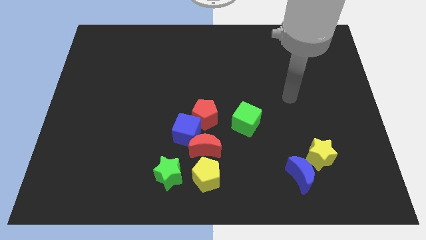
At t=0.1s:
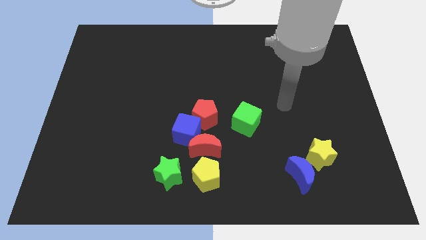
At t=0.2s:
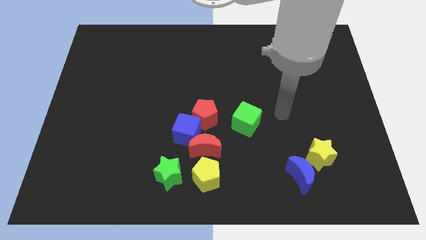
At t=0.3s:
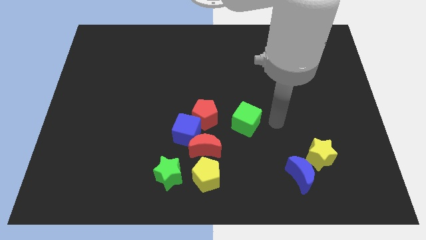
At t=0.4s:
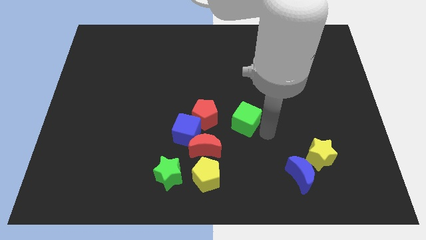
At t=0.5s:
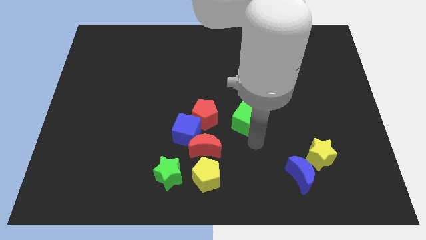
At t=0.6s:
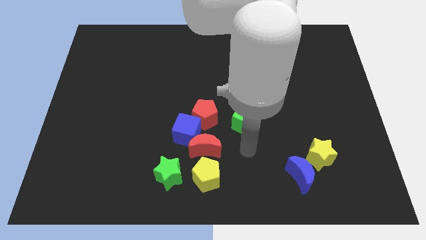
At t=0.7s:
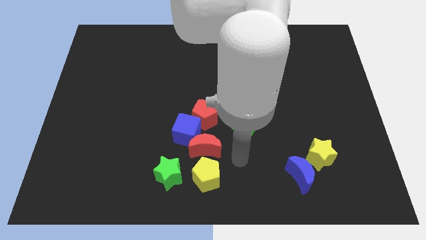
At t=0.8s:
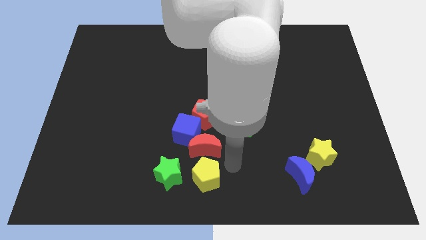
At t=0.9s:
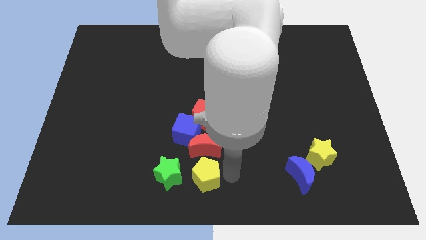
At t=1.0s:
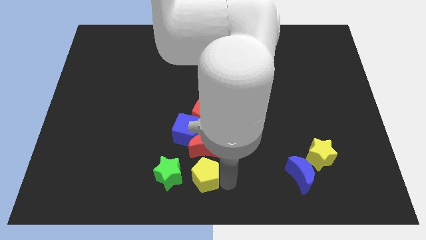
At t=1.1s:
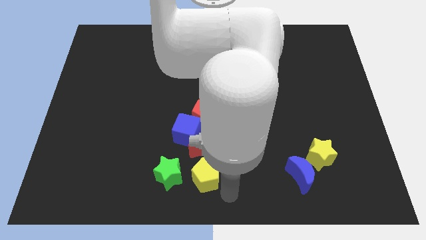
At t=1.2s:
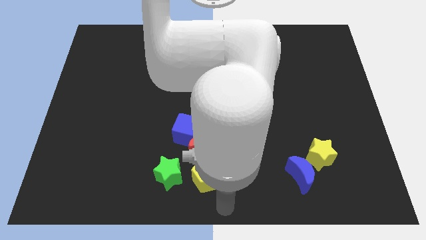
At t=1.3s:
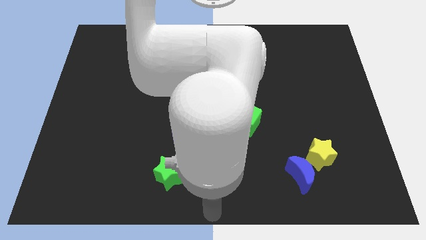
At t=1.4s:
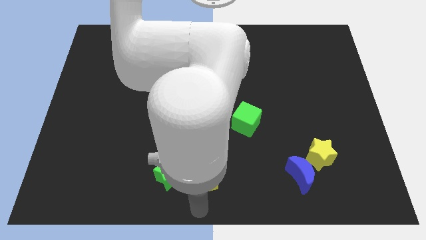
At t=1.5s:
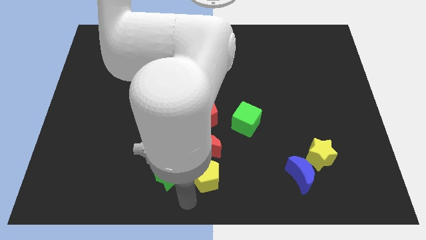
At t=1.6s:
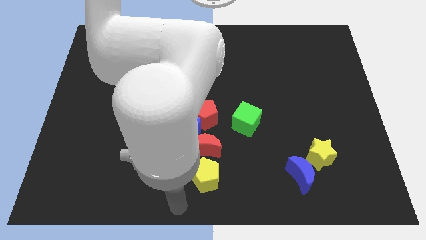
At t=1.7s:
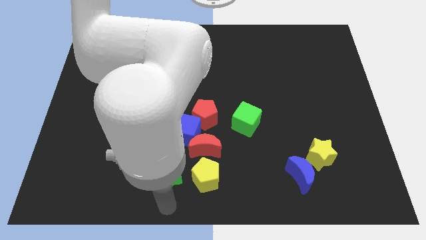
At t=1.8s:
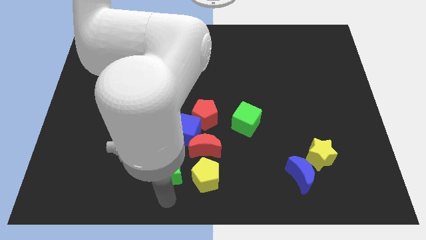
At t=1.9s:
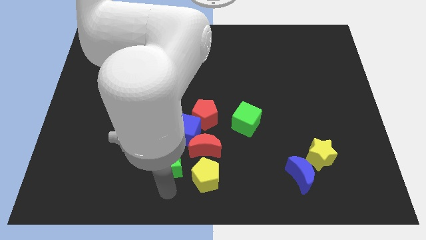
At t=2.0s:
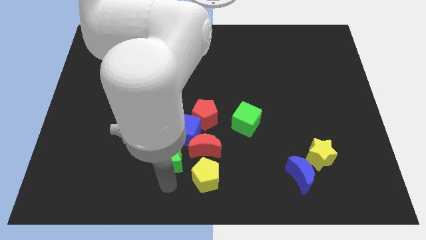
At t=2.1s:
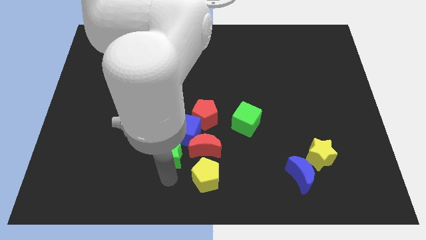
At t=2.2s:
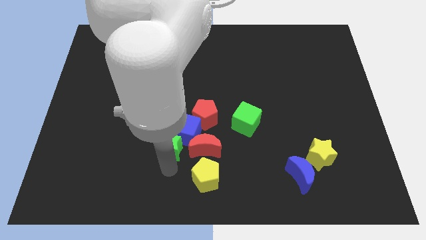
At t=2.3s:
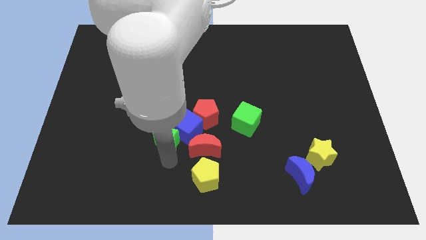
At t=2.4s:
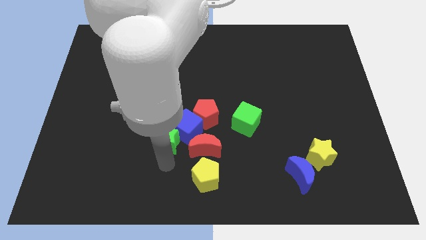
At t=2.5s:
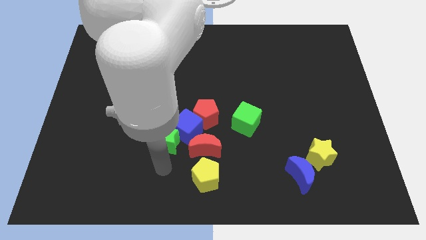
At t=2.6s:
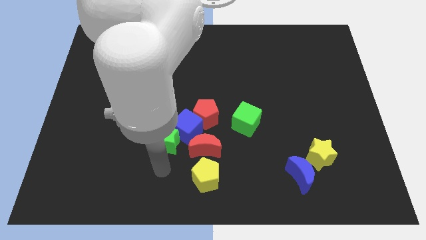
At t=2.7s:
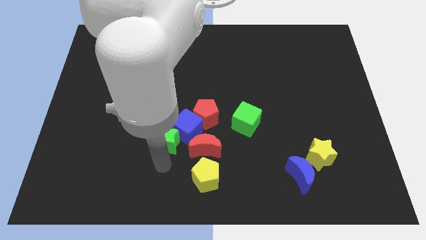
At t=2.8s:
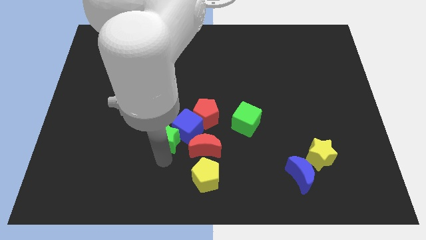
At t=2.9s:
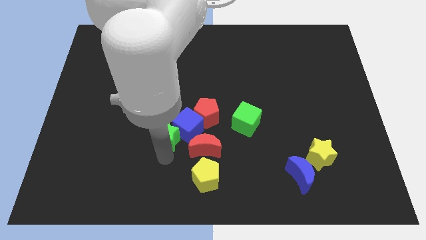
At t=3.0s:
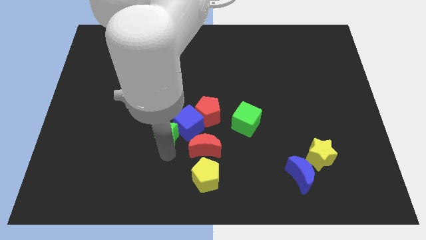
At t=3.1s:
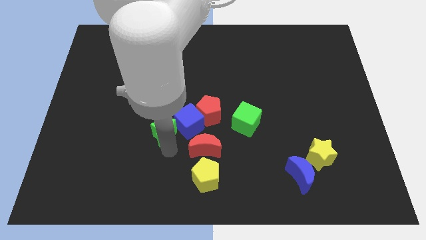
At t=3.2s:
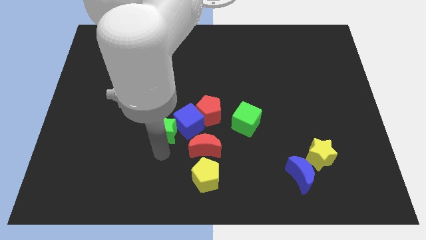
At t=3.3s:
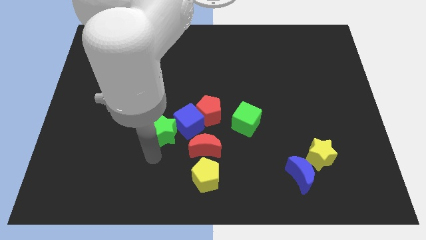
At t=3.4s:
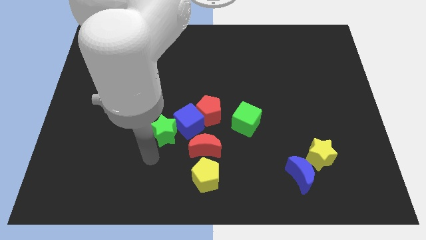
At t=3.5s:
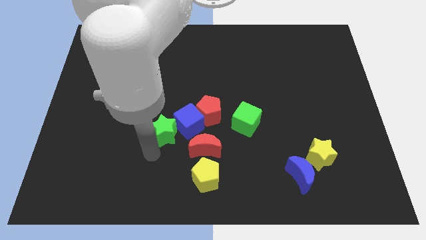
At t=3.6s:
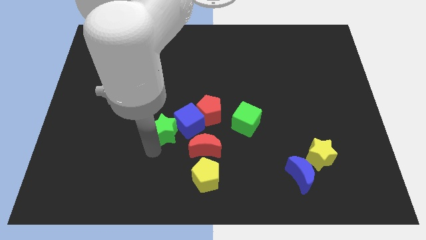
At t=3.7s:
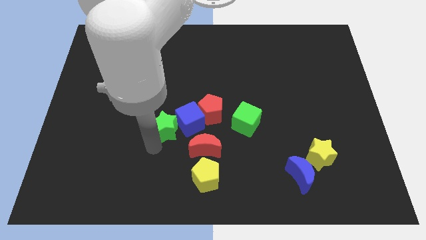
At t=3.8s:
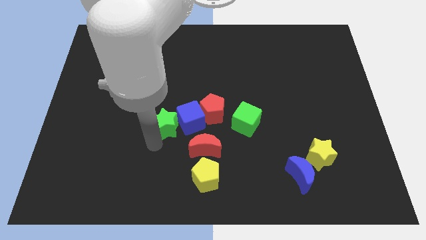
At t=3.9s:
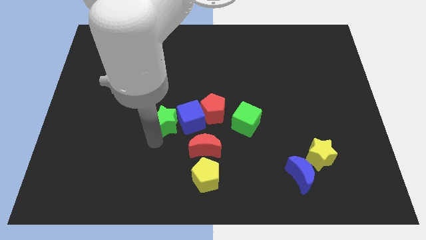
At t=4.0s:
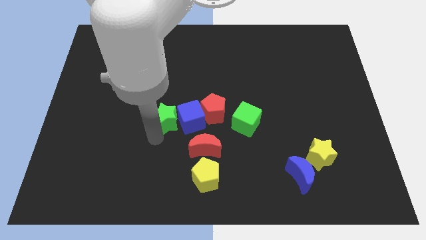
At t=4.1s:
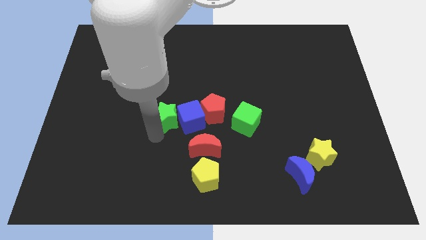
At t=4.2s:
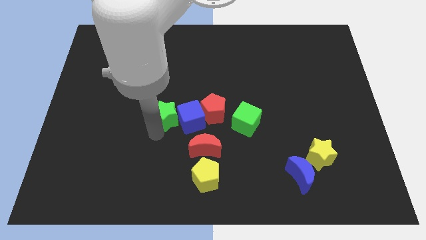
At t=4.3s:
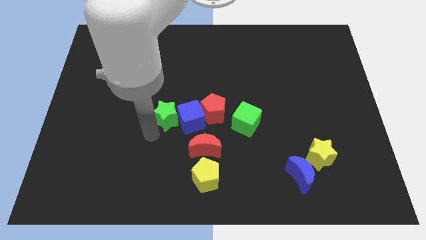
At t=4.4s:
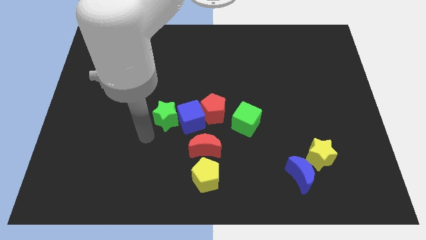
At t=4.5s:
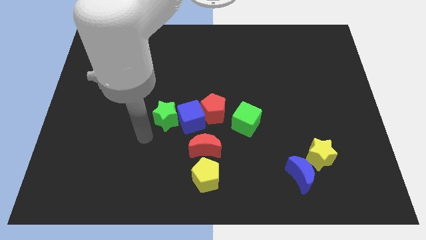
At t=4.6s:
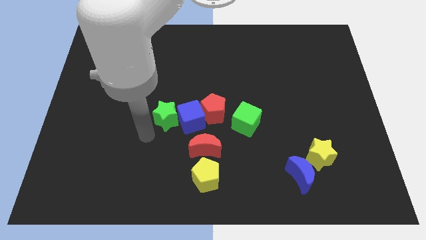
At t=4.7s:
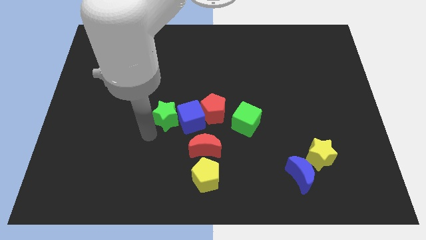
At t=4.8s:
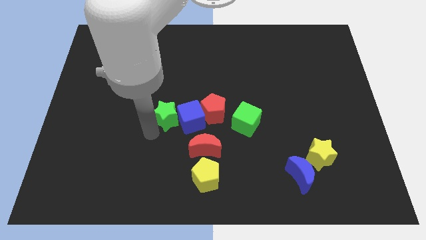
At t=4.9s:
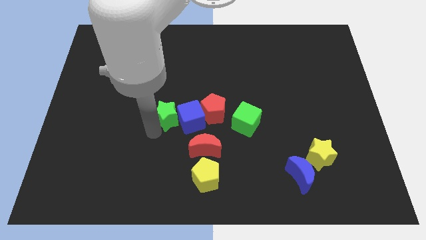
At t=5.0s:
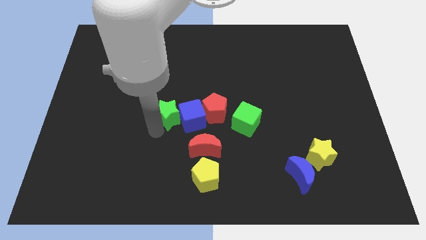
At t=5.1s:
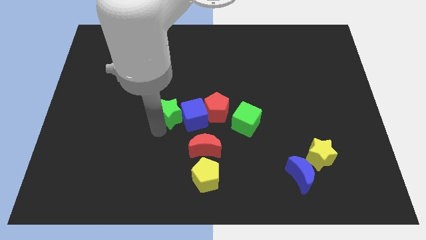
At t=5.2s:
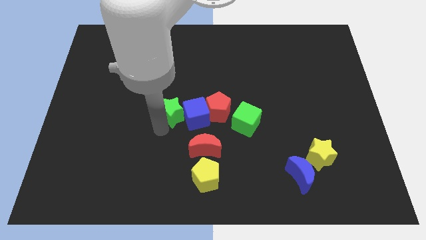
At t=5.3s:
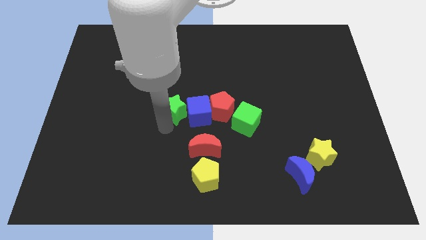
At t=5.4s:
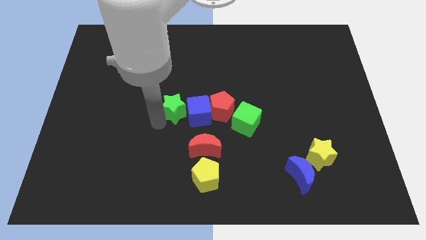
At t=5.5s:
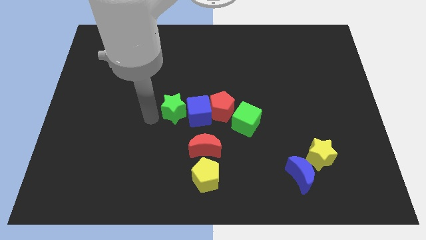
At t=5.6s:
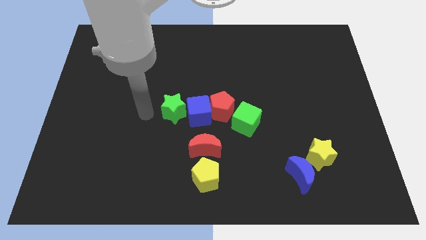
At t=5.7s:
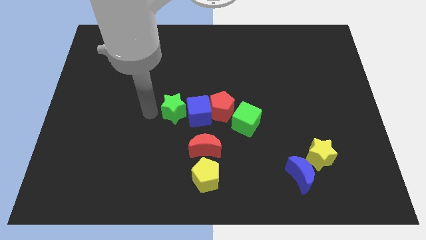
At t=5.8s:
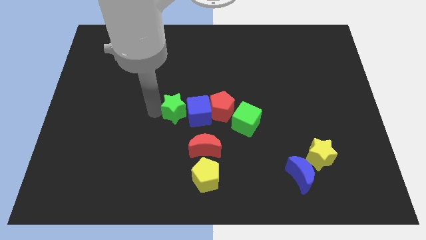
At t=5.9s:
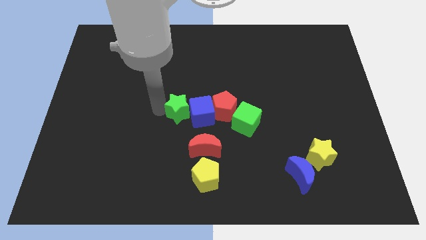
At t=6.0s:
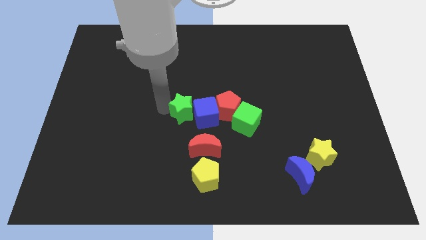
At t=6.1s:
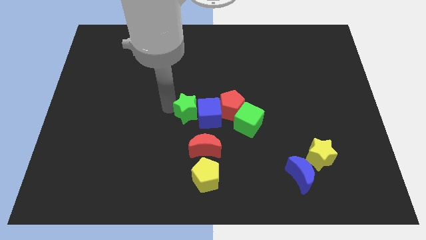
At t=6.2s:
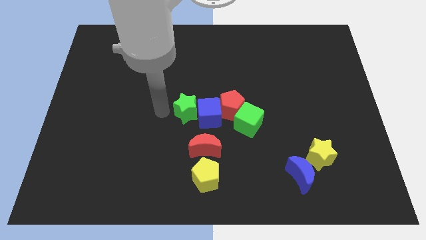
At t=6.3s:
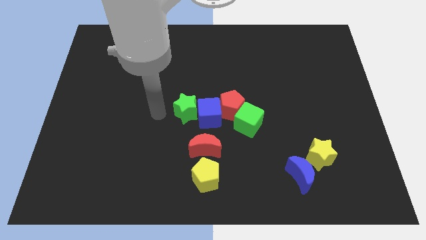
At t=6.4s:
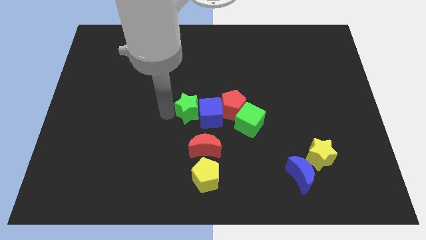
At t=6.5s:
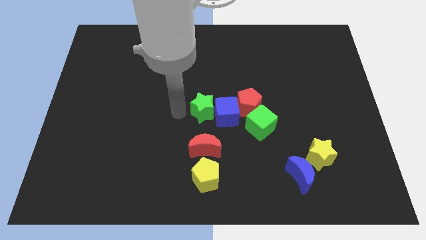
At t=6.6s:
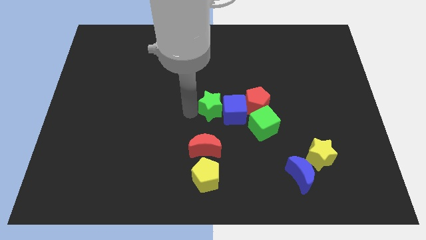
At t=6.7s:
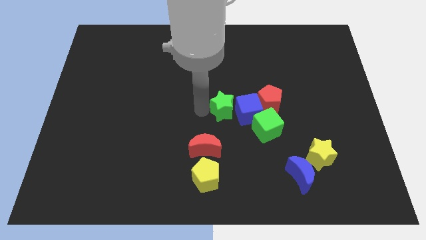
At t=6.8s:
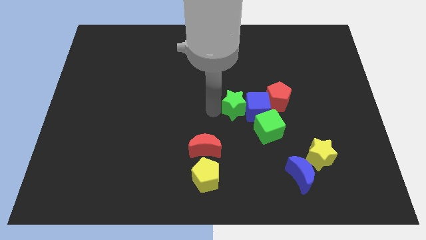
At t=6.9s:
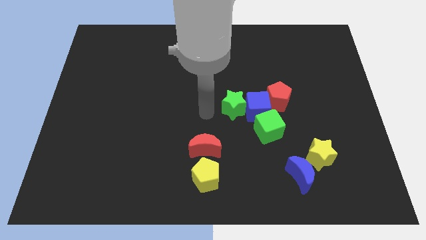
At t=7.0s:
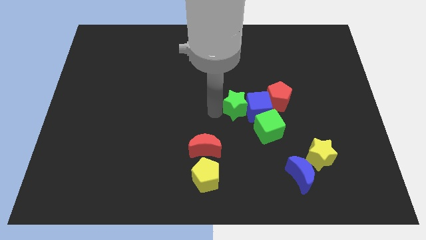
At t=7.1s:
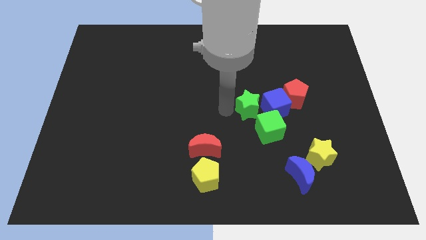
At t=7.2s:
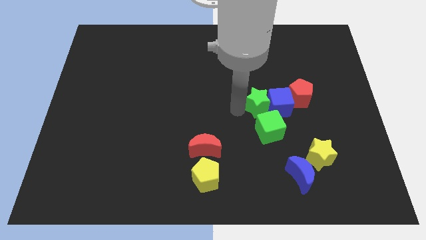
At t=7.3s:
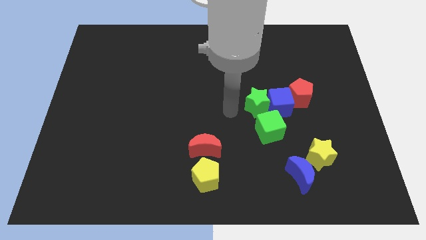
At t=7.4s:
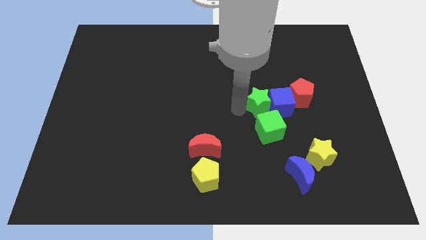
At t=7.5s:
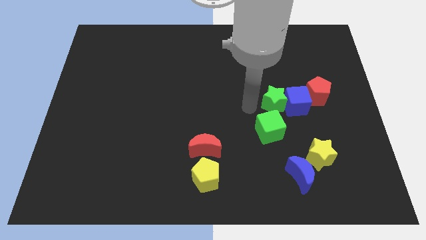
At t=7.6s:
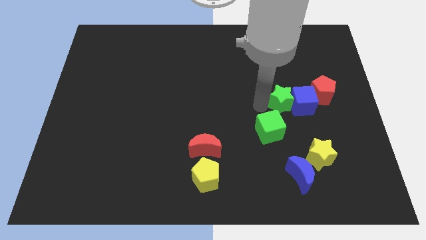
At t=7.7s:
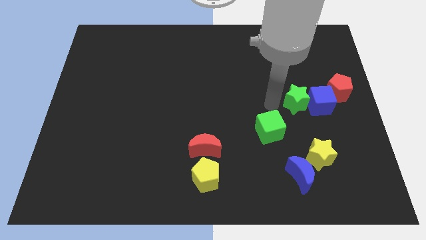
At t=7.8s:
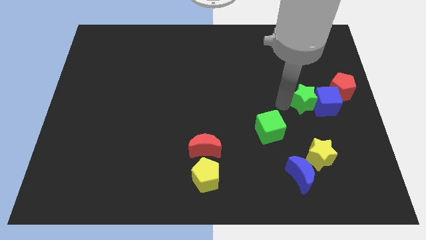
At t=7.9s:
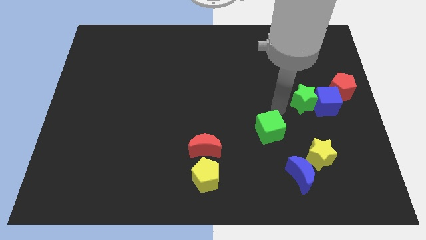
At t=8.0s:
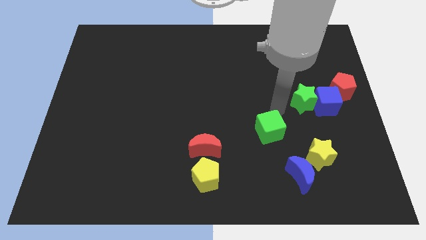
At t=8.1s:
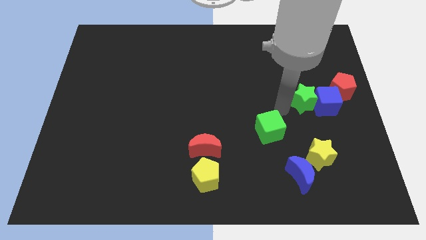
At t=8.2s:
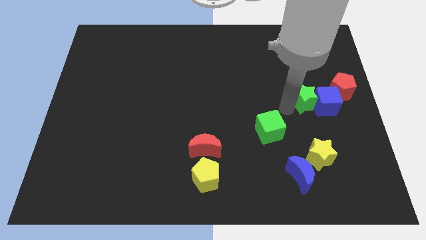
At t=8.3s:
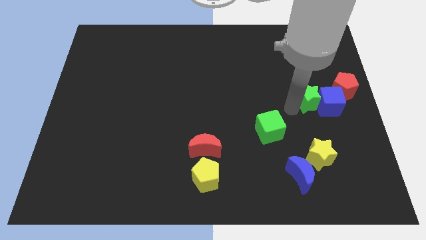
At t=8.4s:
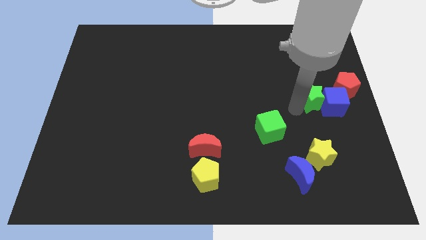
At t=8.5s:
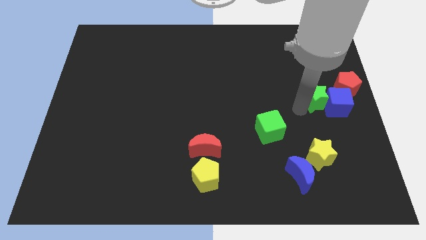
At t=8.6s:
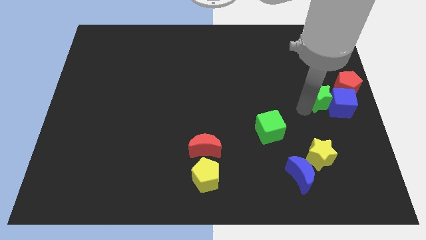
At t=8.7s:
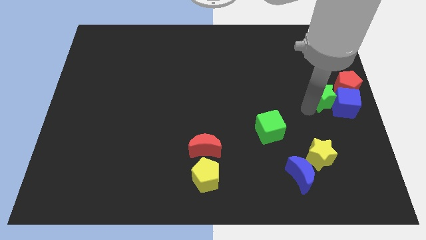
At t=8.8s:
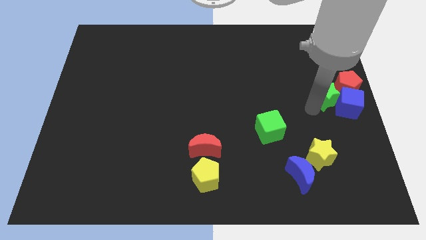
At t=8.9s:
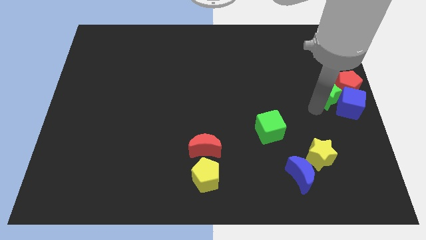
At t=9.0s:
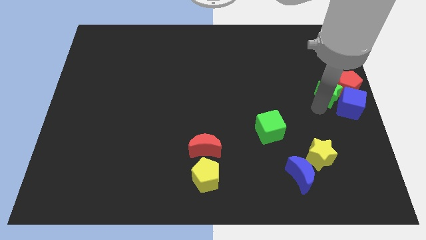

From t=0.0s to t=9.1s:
slide the green star next to the red pentagon
